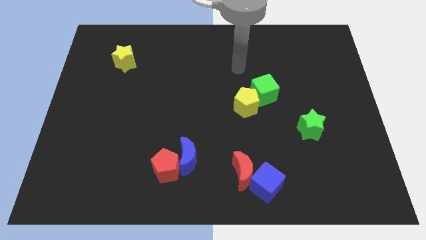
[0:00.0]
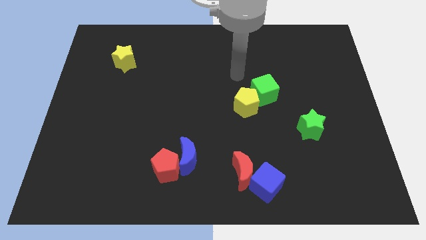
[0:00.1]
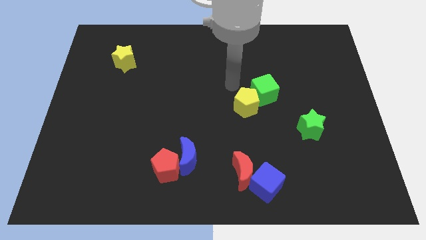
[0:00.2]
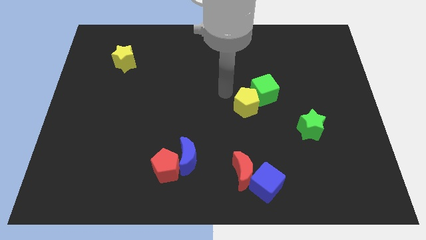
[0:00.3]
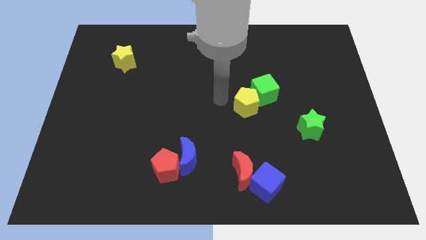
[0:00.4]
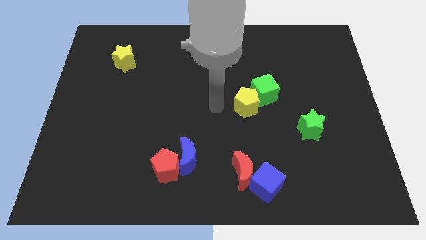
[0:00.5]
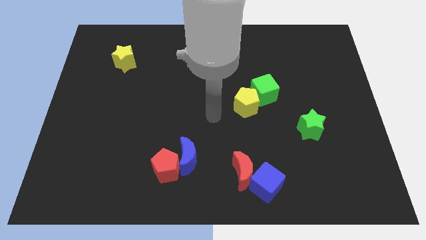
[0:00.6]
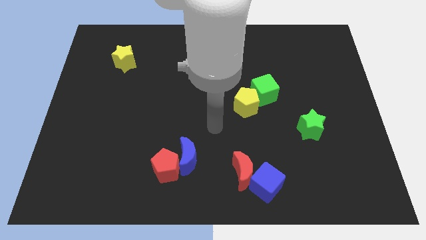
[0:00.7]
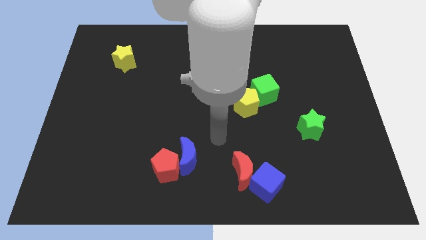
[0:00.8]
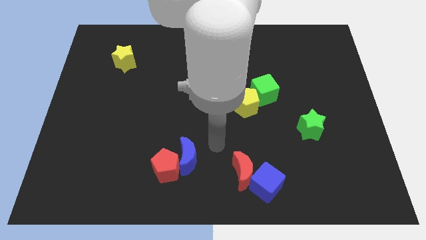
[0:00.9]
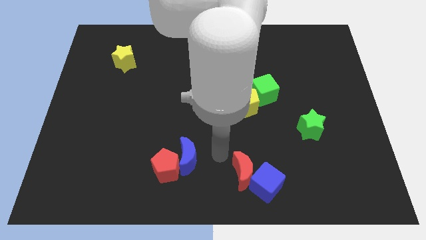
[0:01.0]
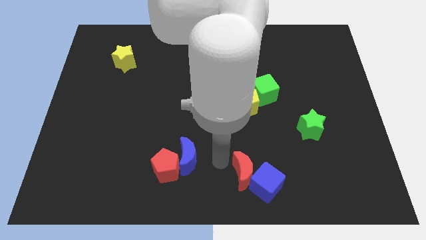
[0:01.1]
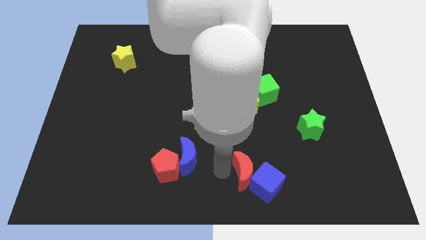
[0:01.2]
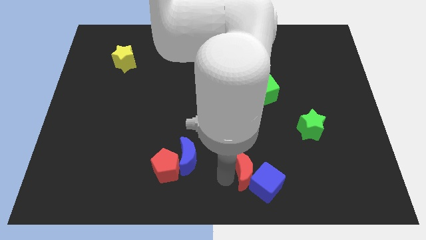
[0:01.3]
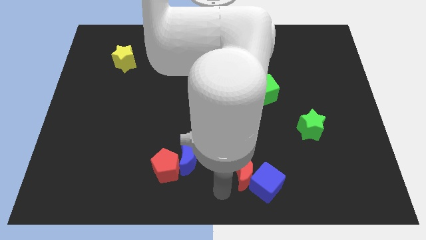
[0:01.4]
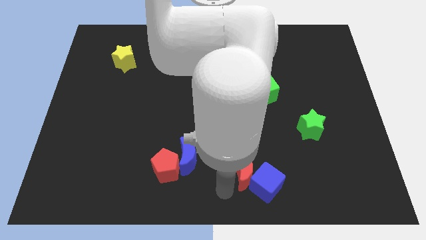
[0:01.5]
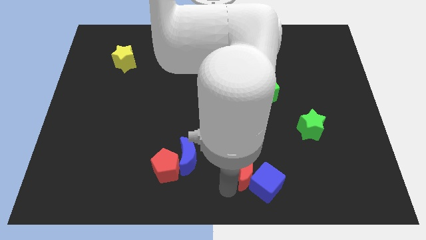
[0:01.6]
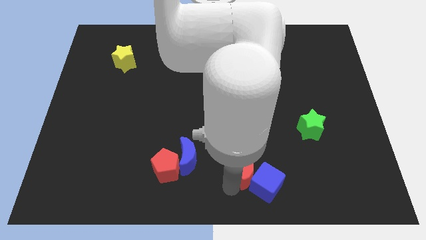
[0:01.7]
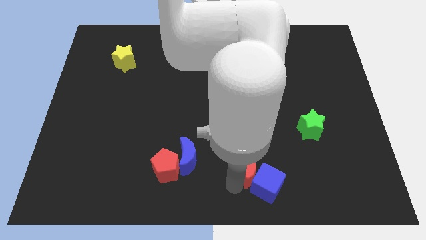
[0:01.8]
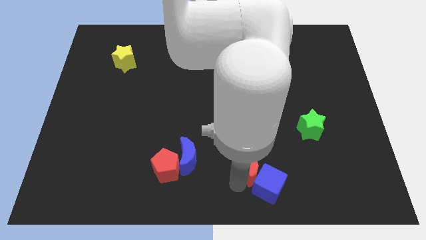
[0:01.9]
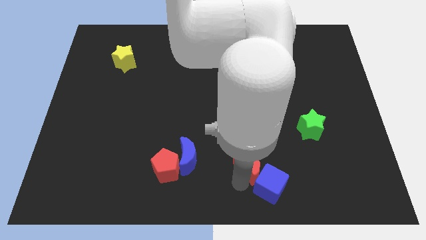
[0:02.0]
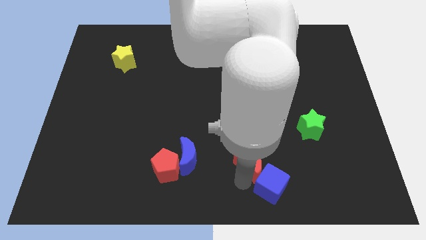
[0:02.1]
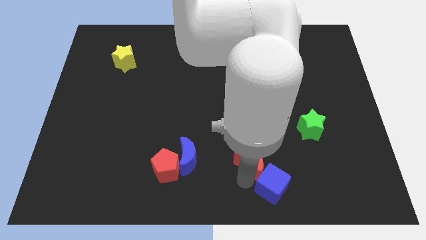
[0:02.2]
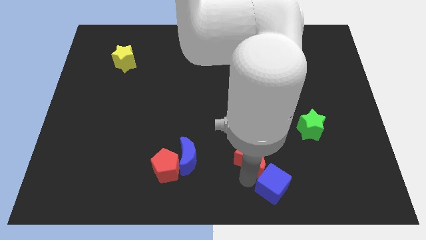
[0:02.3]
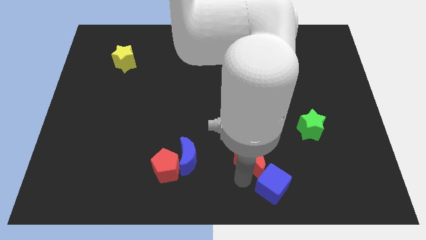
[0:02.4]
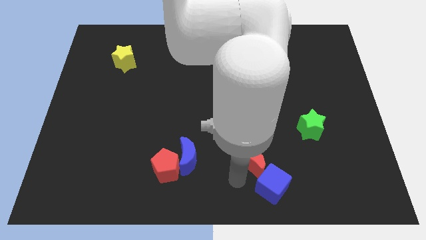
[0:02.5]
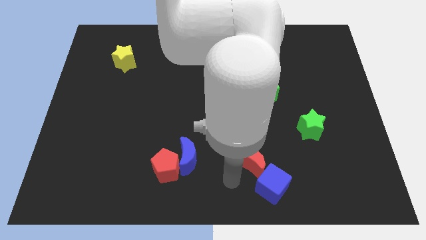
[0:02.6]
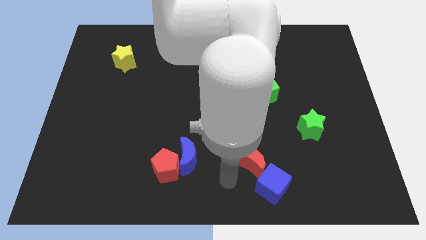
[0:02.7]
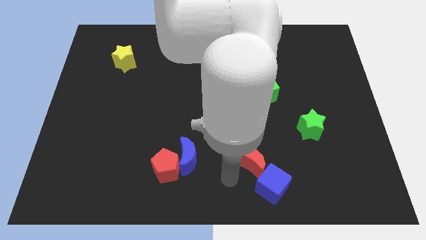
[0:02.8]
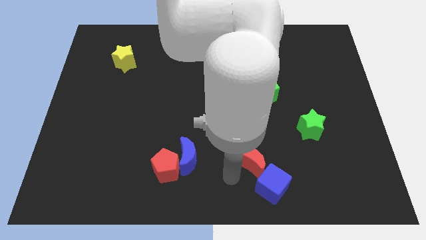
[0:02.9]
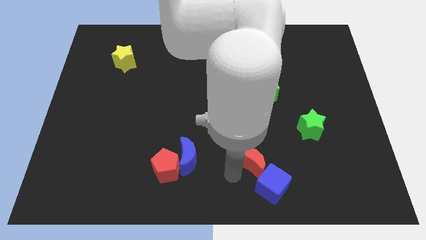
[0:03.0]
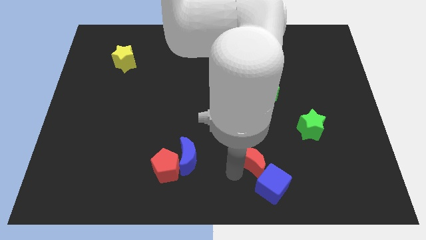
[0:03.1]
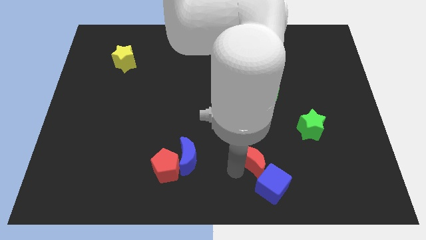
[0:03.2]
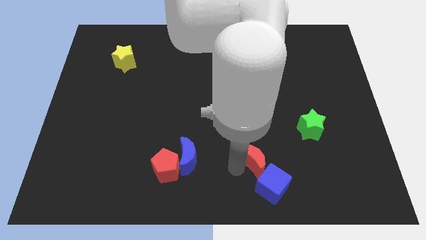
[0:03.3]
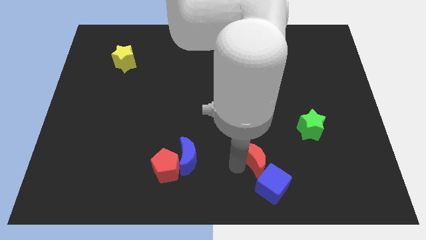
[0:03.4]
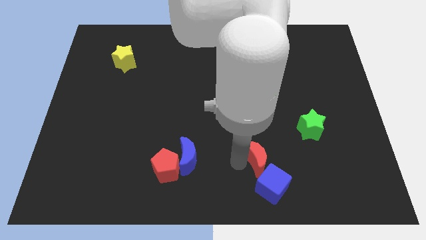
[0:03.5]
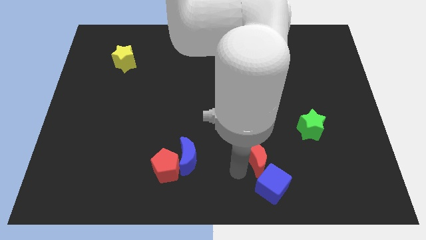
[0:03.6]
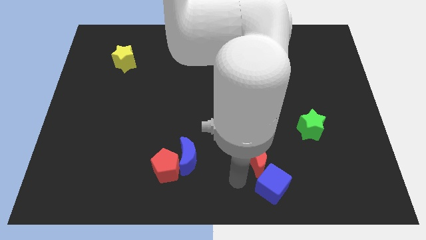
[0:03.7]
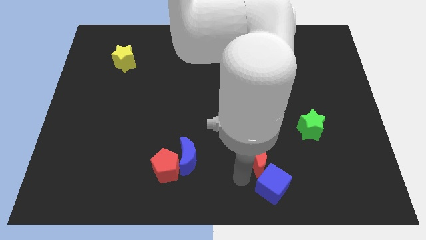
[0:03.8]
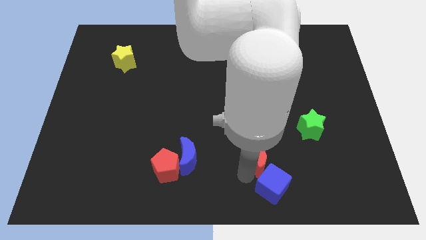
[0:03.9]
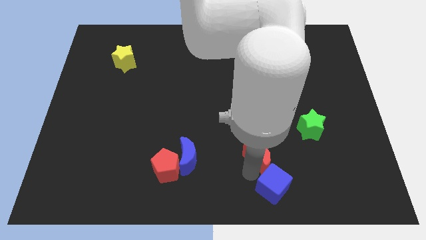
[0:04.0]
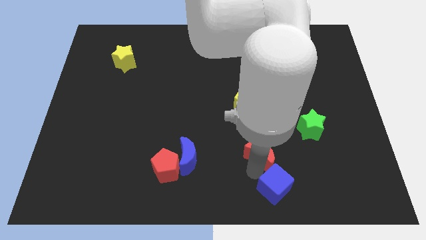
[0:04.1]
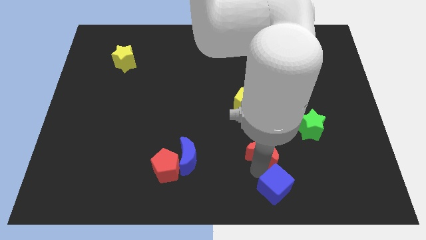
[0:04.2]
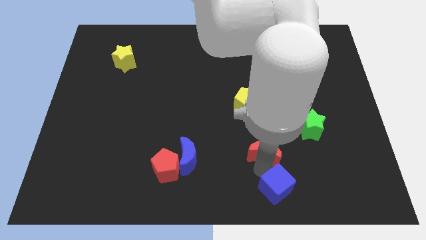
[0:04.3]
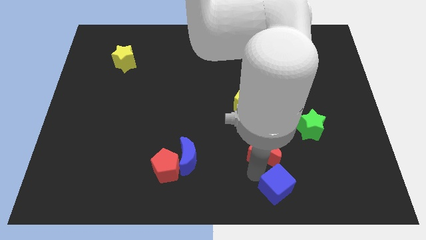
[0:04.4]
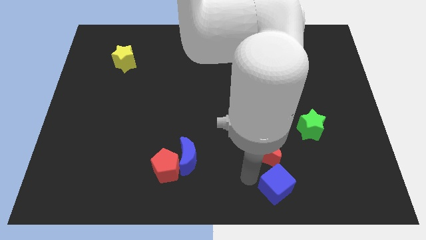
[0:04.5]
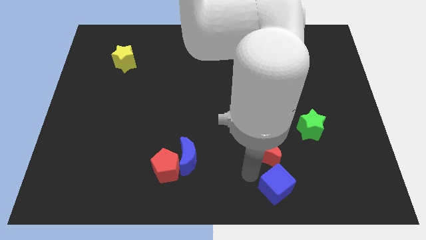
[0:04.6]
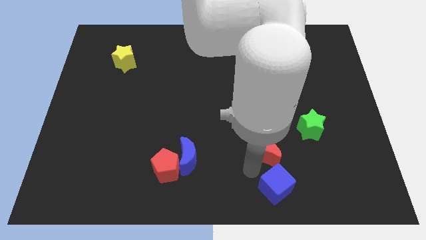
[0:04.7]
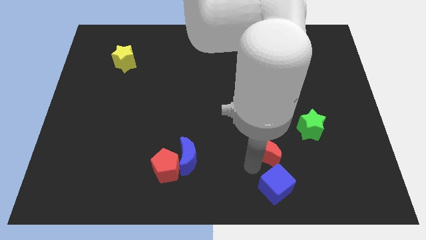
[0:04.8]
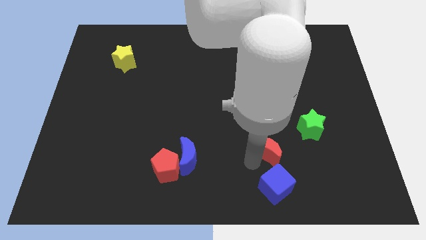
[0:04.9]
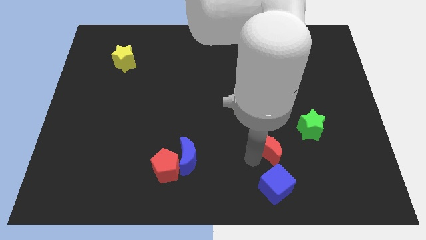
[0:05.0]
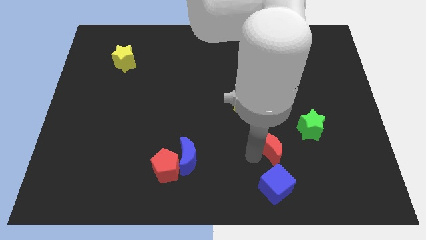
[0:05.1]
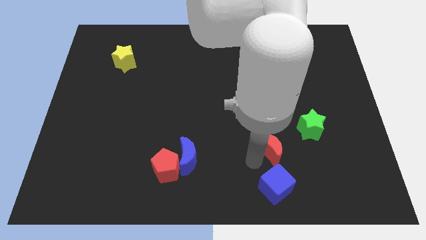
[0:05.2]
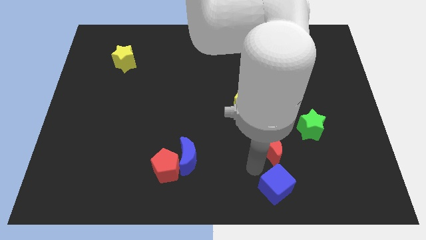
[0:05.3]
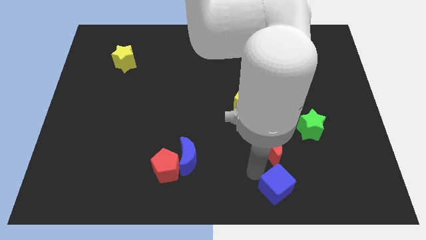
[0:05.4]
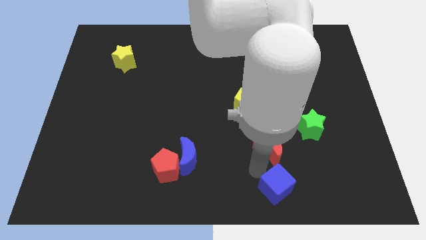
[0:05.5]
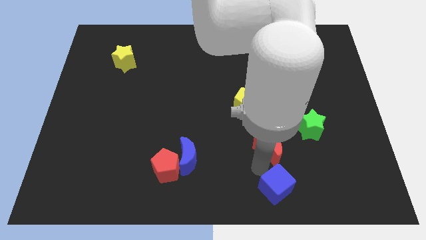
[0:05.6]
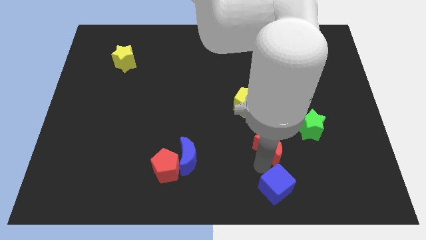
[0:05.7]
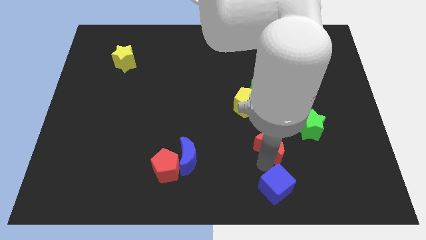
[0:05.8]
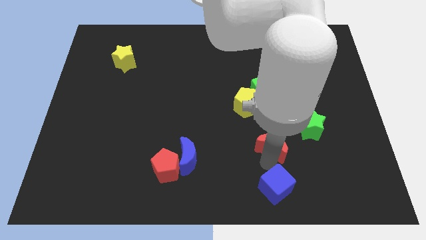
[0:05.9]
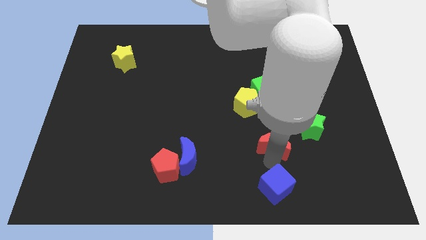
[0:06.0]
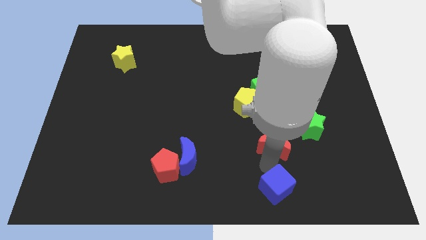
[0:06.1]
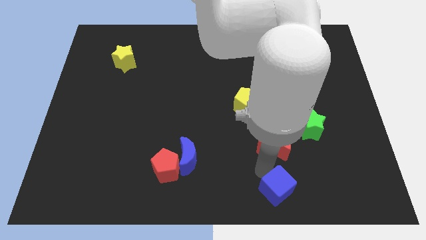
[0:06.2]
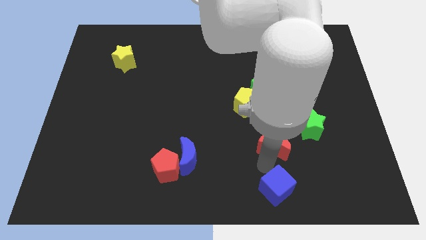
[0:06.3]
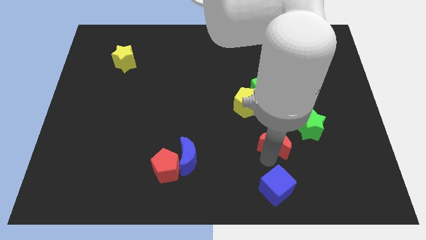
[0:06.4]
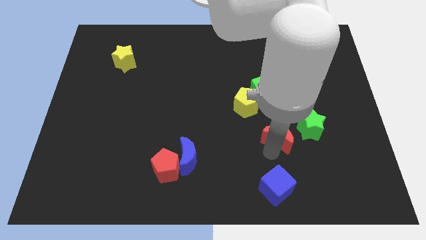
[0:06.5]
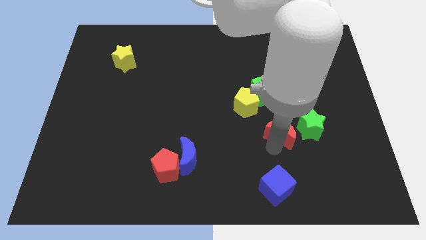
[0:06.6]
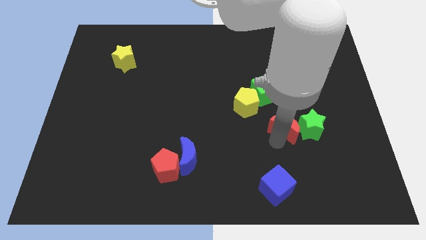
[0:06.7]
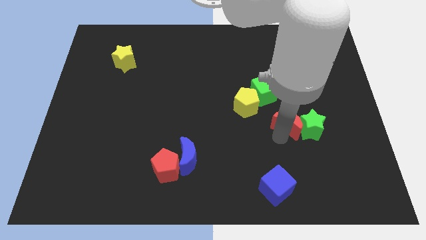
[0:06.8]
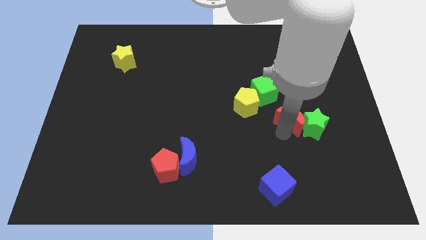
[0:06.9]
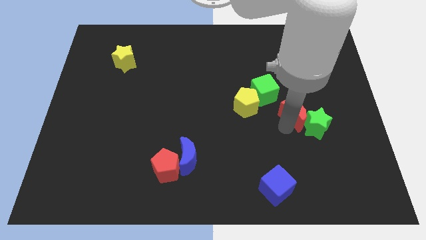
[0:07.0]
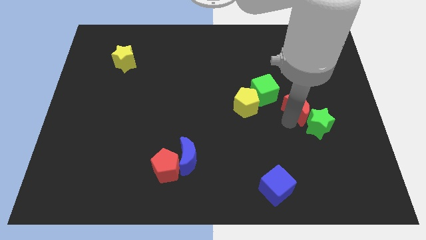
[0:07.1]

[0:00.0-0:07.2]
move the red moon upwards and then to the right

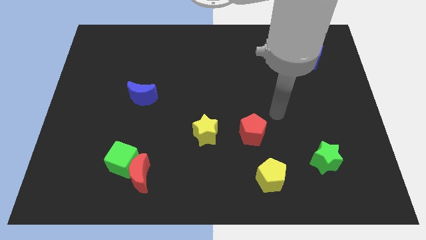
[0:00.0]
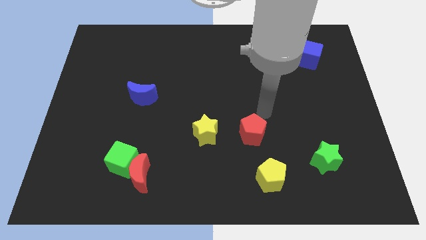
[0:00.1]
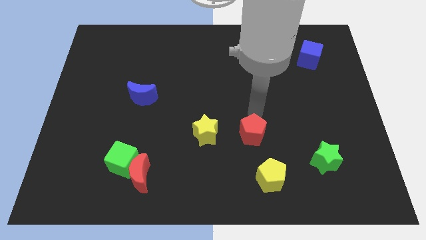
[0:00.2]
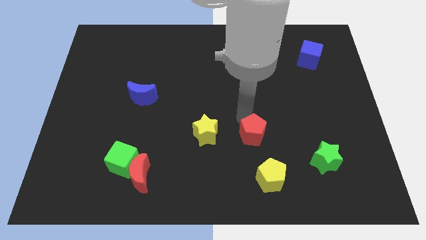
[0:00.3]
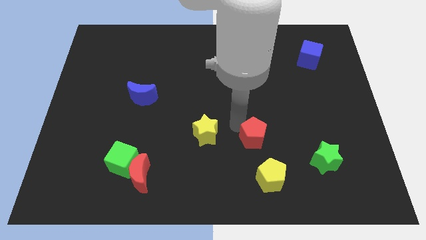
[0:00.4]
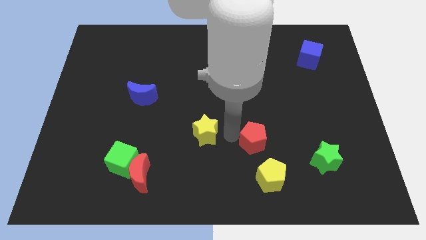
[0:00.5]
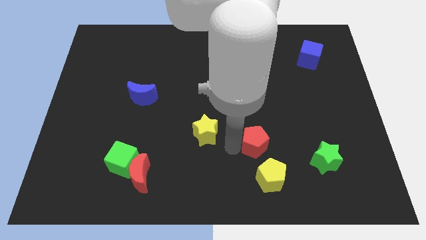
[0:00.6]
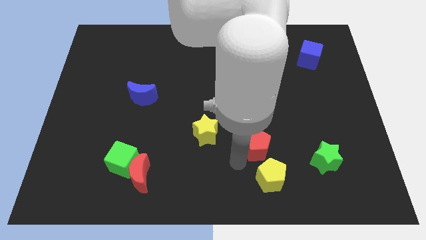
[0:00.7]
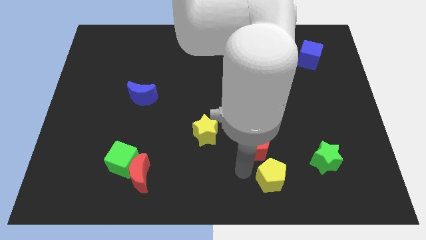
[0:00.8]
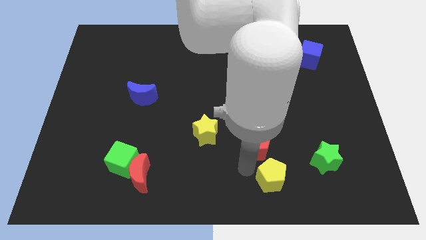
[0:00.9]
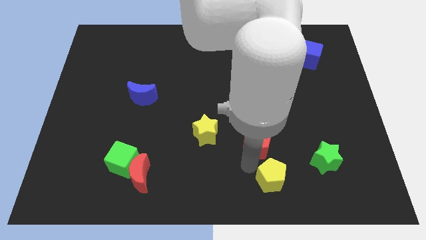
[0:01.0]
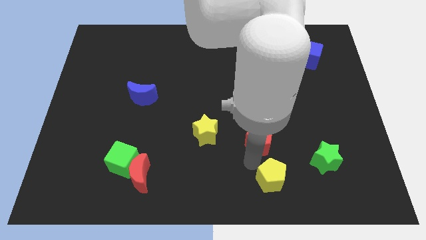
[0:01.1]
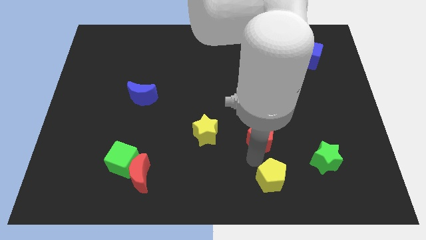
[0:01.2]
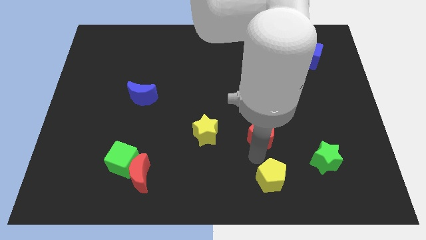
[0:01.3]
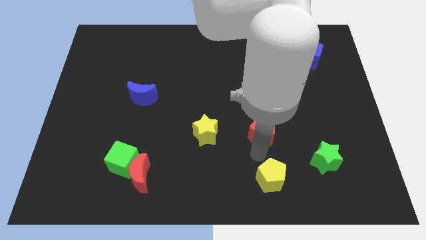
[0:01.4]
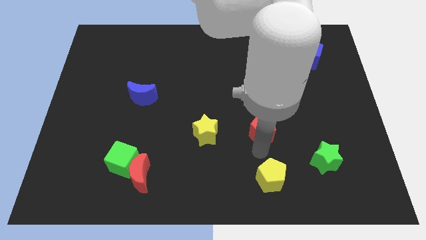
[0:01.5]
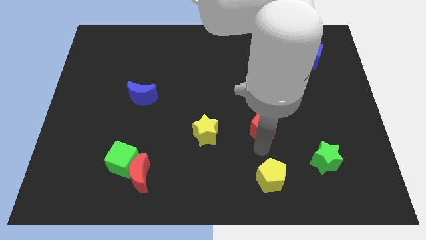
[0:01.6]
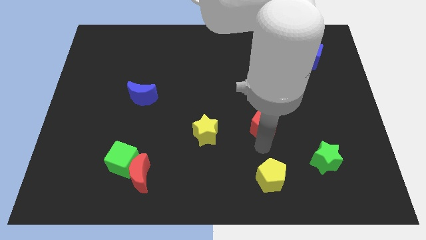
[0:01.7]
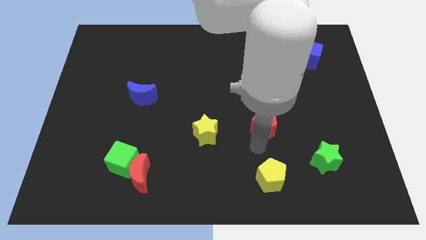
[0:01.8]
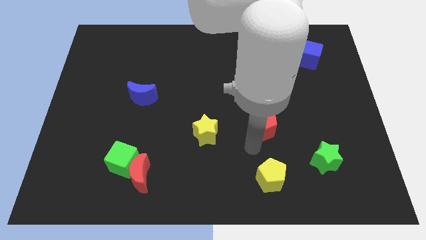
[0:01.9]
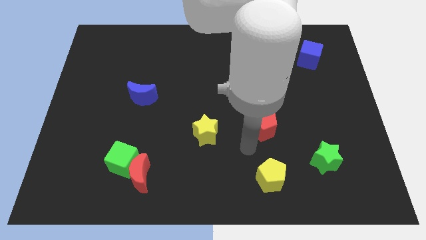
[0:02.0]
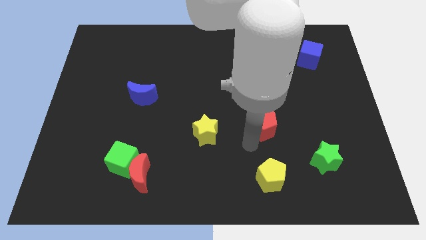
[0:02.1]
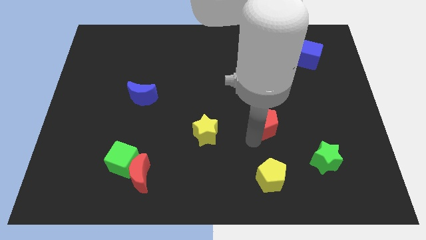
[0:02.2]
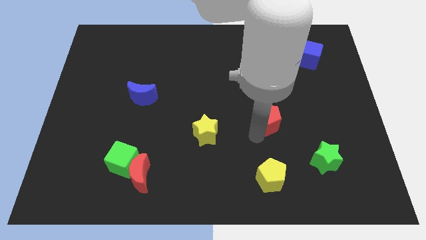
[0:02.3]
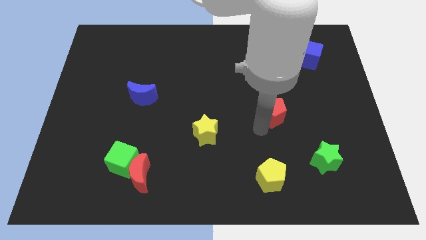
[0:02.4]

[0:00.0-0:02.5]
move the red pentagon upwards and right a little
